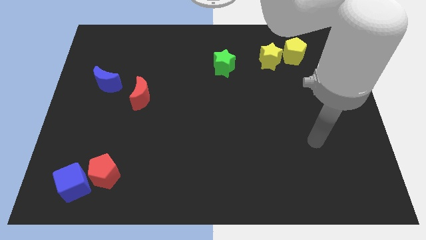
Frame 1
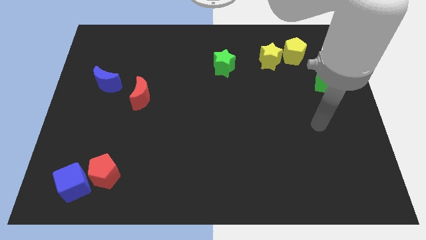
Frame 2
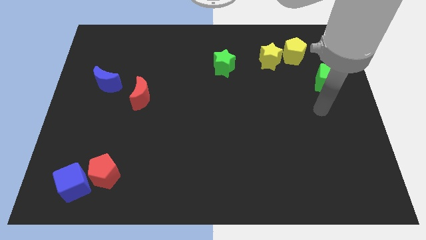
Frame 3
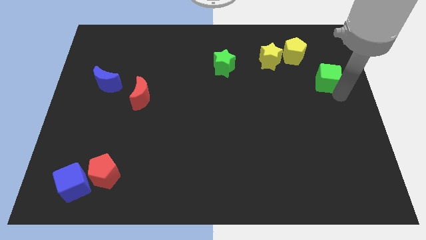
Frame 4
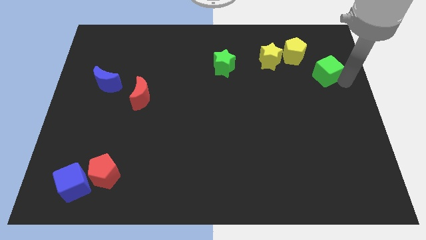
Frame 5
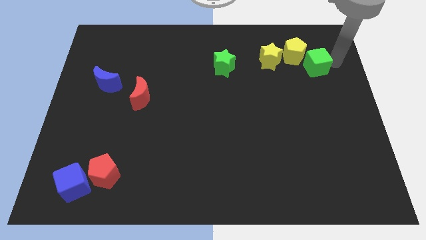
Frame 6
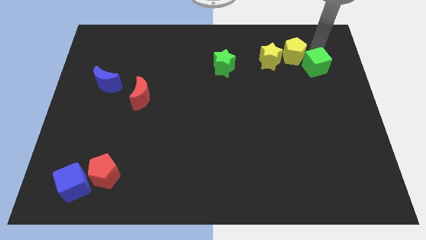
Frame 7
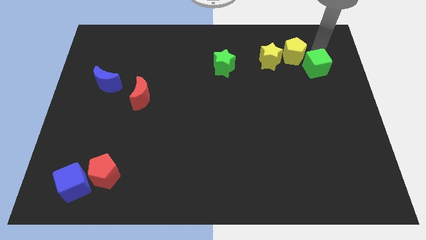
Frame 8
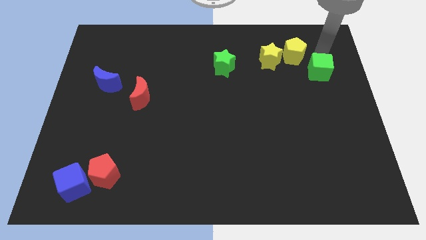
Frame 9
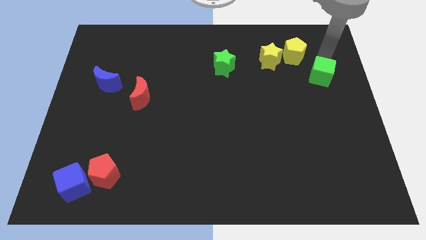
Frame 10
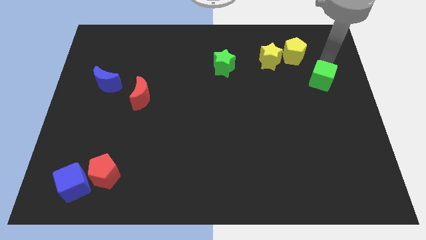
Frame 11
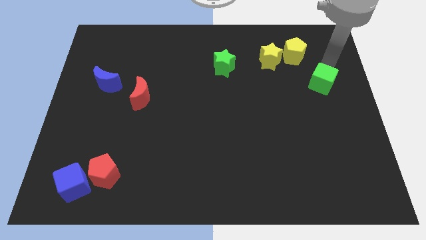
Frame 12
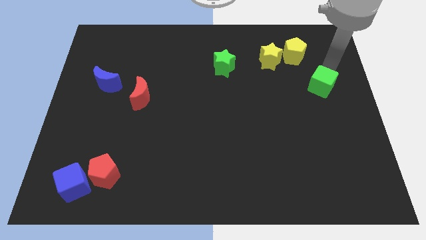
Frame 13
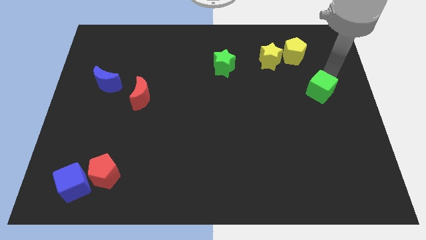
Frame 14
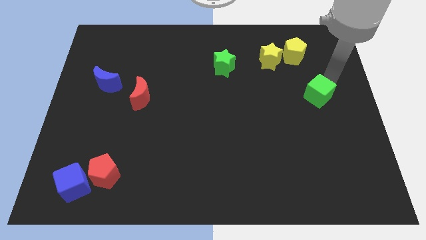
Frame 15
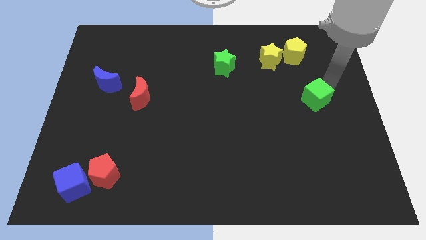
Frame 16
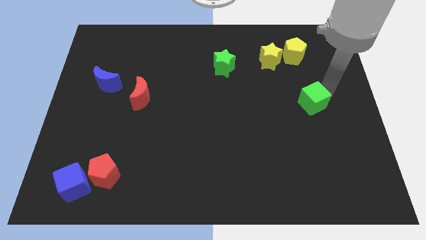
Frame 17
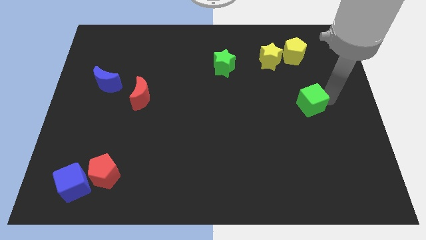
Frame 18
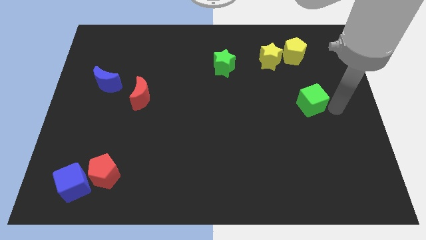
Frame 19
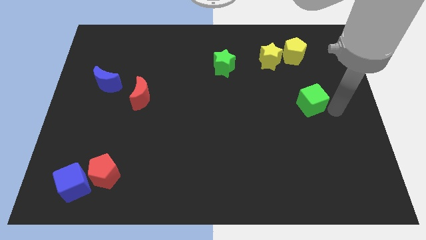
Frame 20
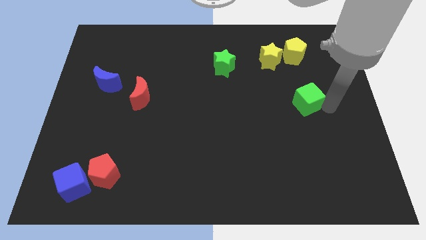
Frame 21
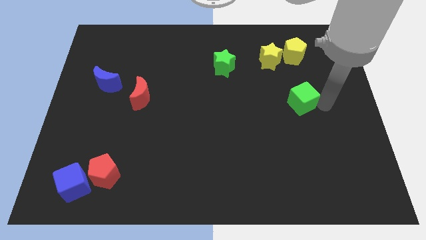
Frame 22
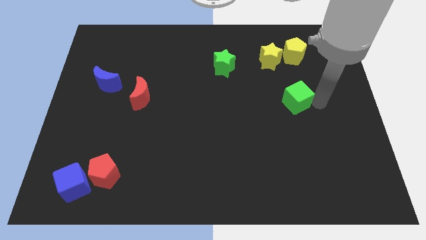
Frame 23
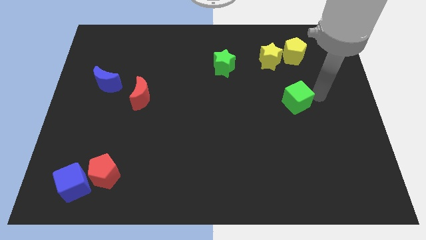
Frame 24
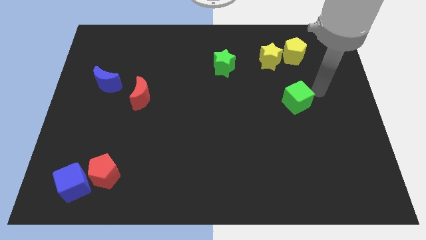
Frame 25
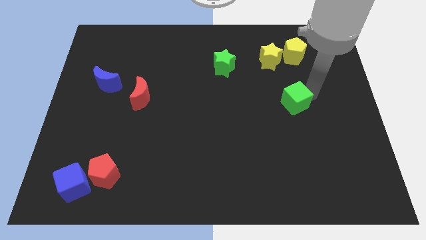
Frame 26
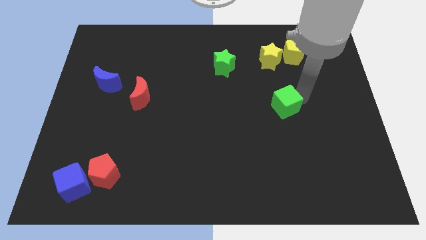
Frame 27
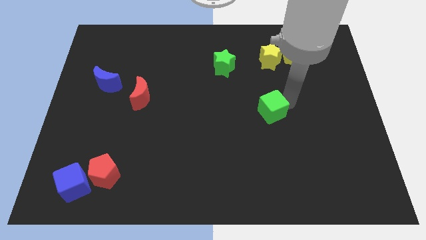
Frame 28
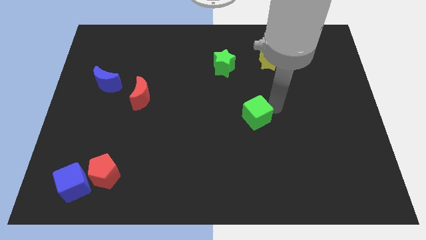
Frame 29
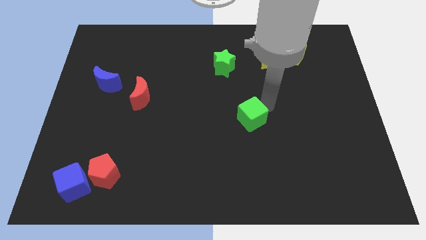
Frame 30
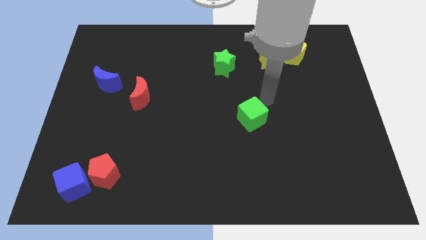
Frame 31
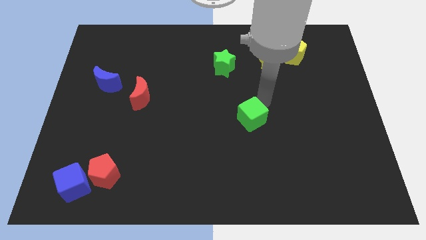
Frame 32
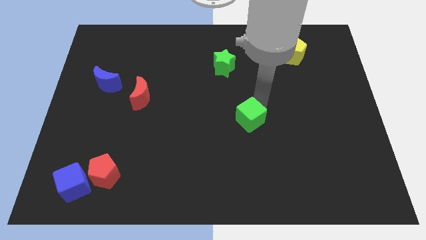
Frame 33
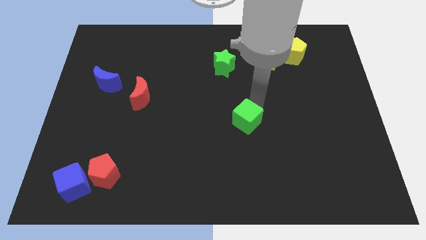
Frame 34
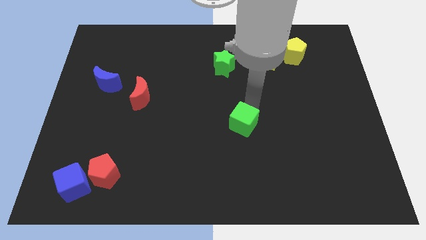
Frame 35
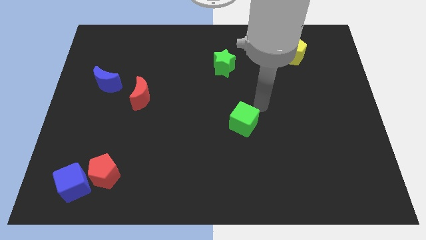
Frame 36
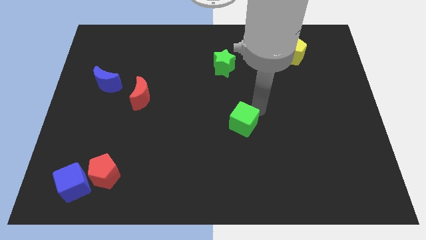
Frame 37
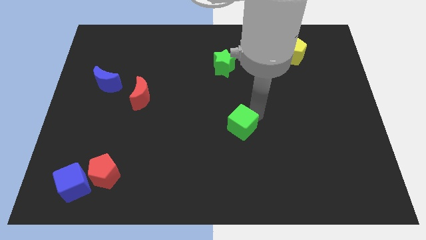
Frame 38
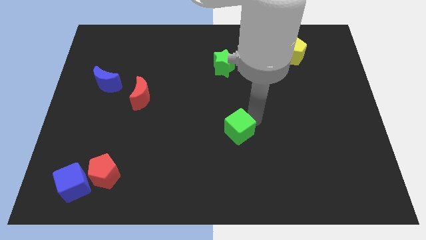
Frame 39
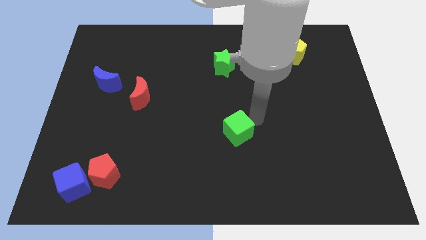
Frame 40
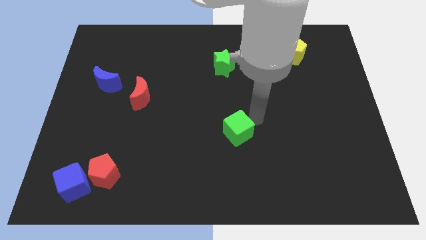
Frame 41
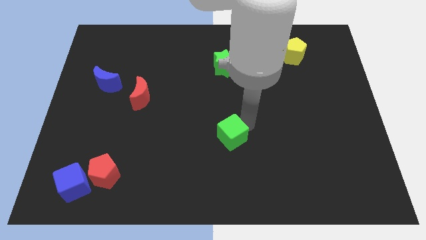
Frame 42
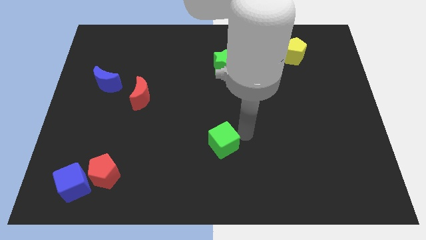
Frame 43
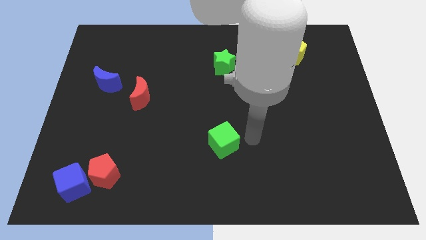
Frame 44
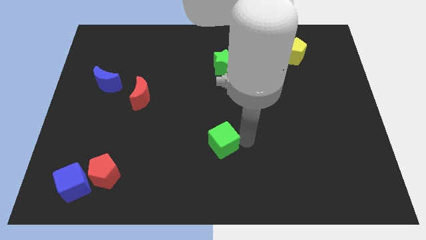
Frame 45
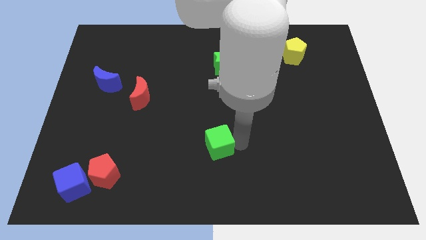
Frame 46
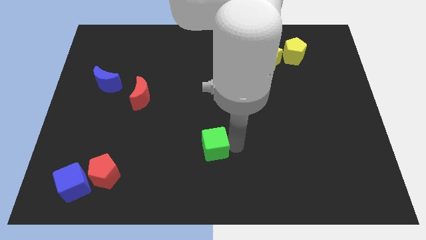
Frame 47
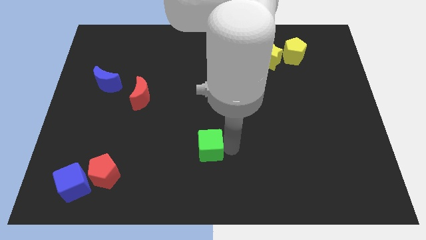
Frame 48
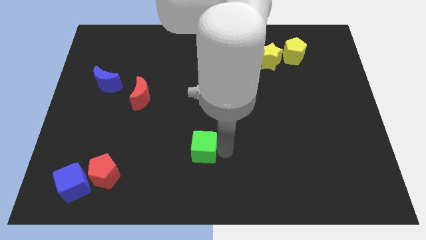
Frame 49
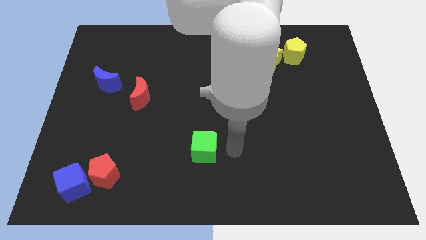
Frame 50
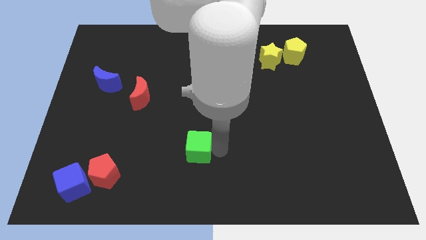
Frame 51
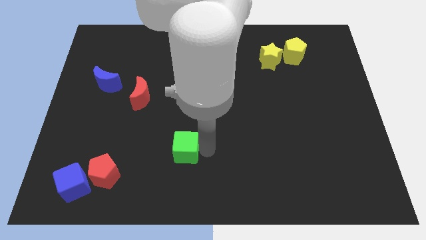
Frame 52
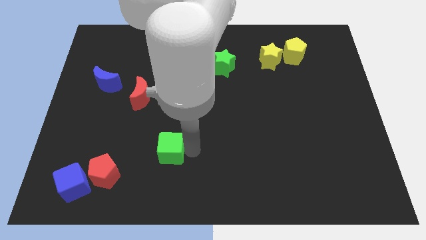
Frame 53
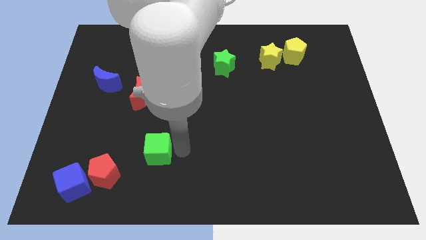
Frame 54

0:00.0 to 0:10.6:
put the green cube diagonally up and to the right of the red pentagon
